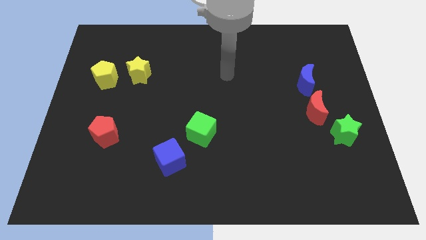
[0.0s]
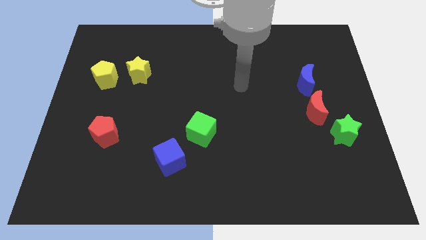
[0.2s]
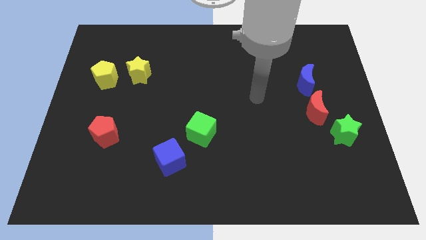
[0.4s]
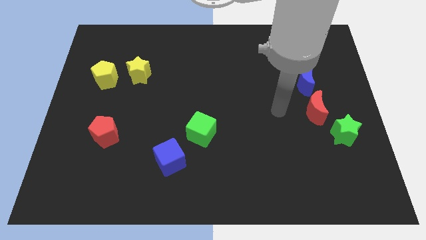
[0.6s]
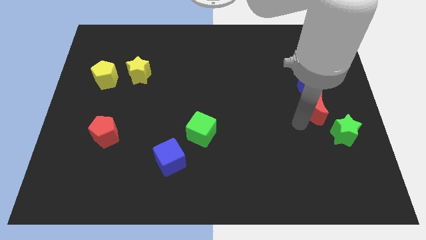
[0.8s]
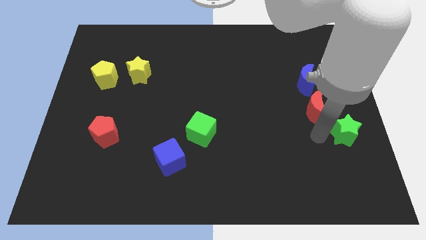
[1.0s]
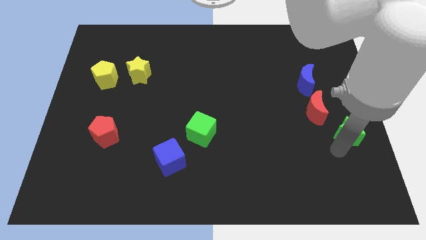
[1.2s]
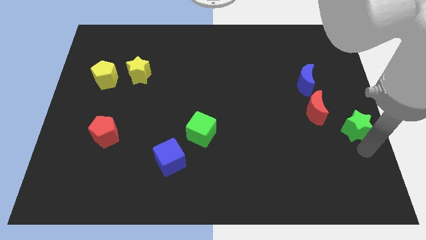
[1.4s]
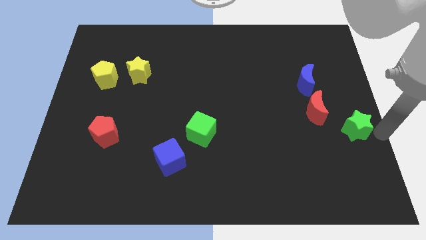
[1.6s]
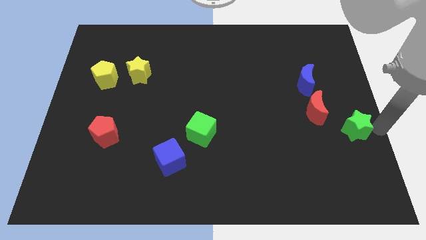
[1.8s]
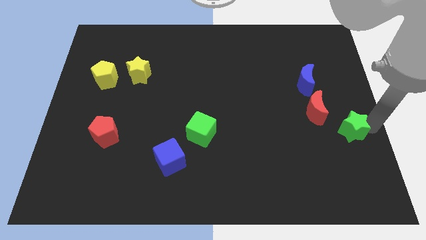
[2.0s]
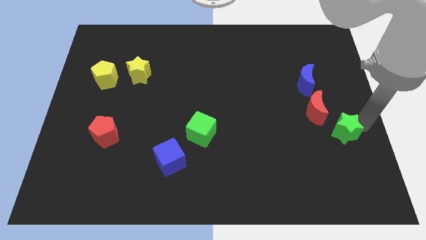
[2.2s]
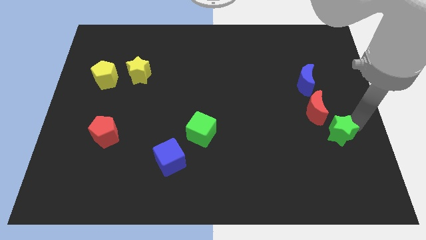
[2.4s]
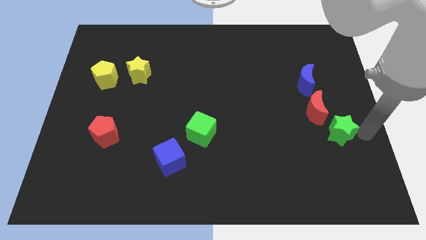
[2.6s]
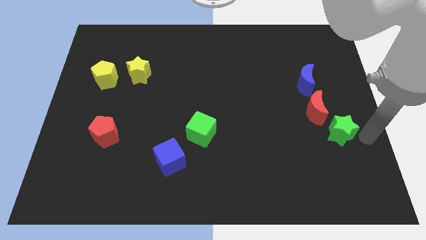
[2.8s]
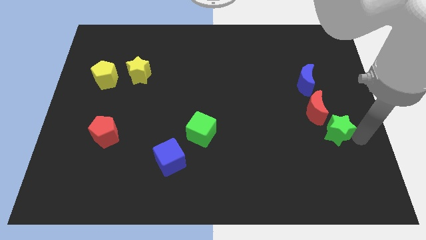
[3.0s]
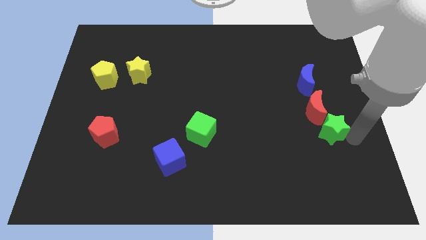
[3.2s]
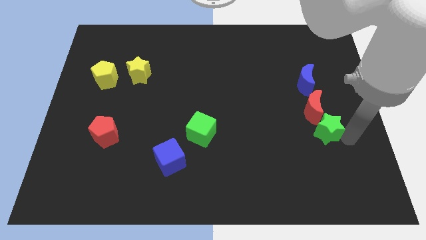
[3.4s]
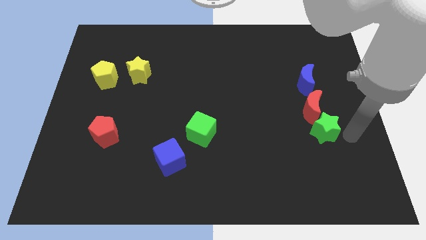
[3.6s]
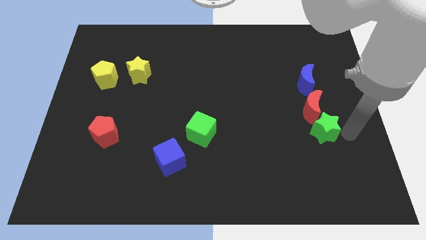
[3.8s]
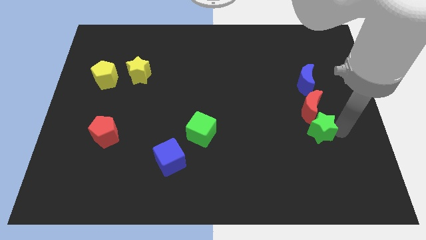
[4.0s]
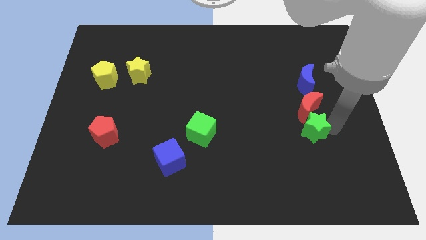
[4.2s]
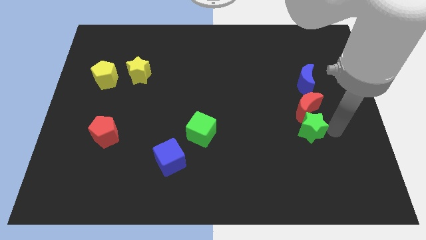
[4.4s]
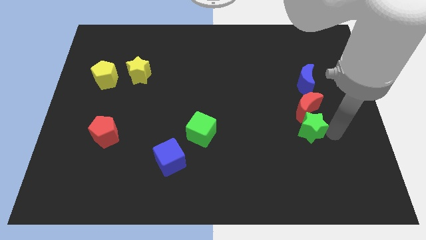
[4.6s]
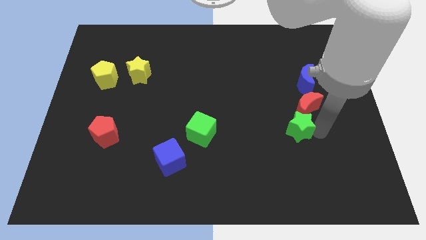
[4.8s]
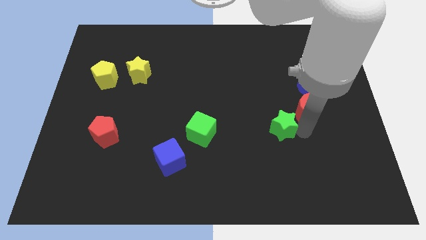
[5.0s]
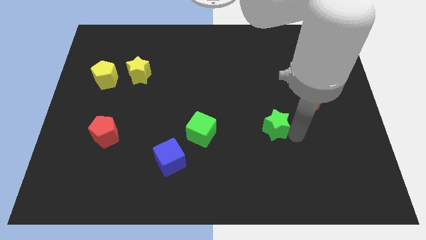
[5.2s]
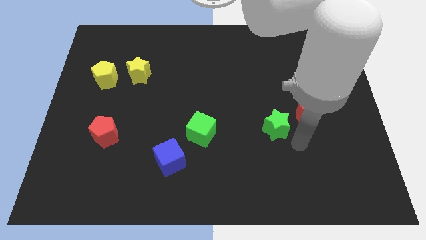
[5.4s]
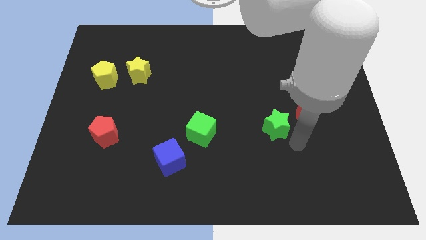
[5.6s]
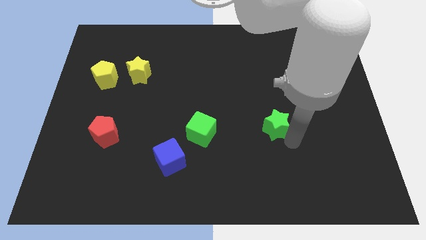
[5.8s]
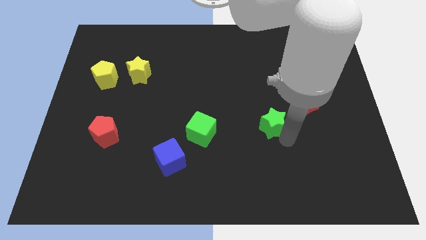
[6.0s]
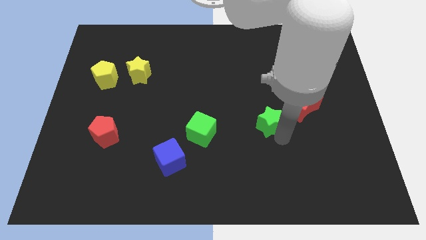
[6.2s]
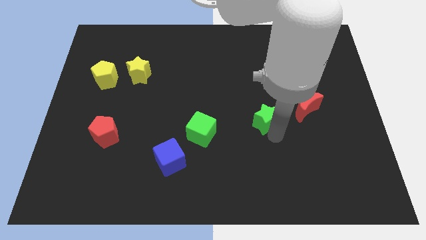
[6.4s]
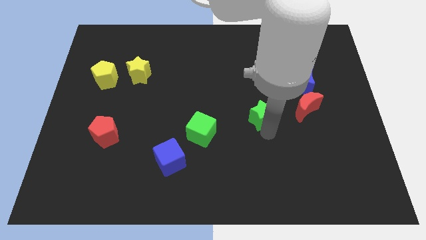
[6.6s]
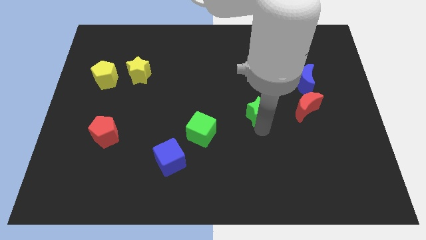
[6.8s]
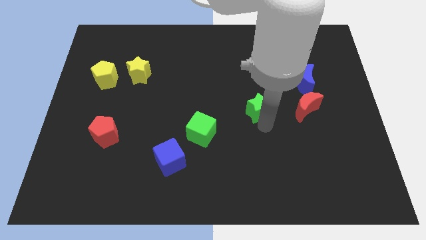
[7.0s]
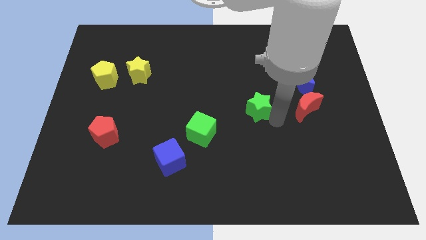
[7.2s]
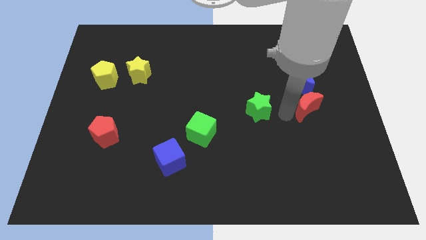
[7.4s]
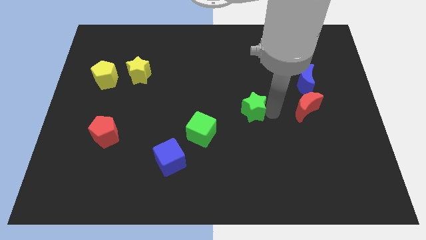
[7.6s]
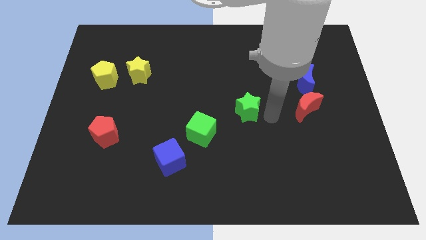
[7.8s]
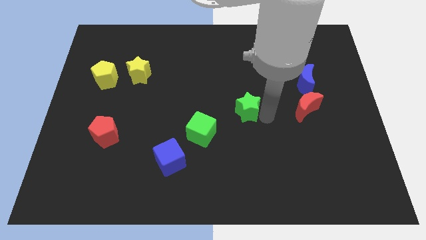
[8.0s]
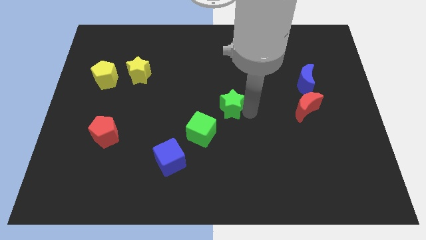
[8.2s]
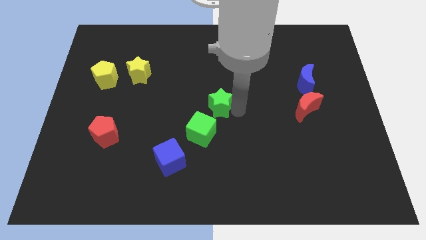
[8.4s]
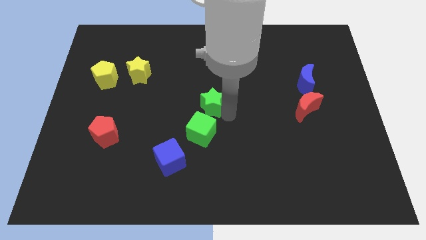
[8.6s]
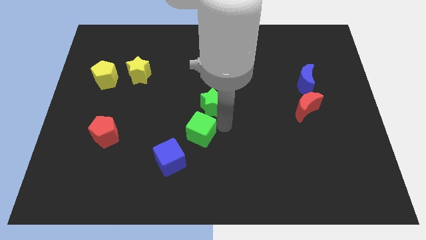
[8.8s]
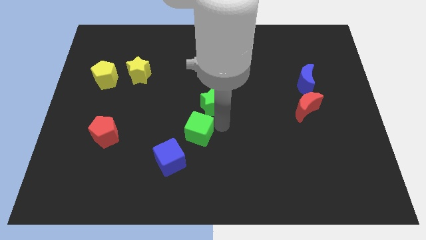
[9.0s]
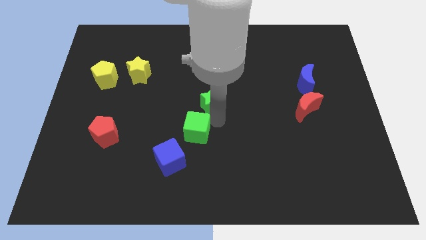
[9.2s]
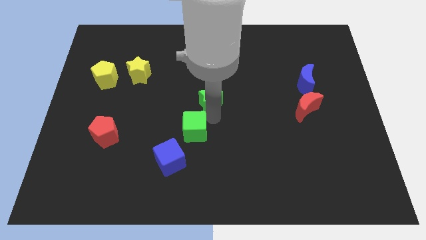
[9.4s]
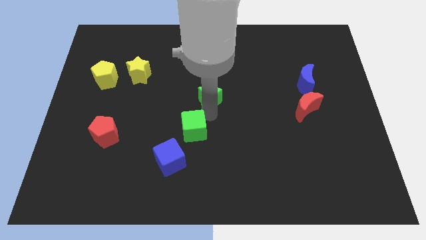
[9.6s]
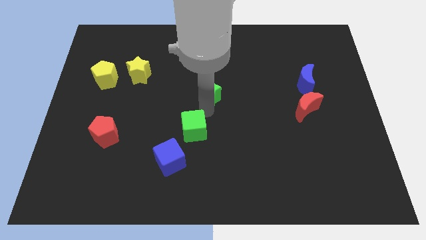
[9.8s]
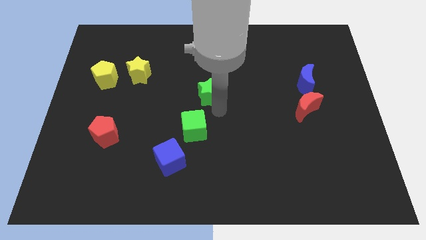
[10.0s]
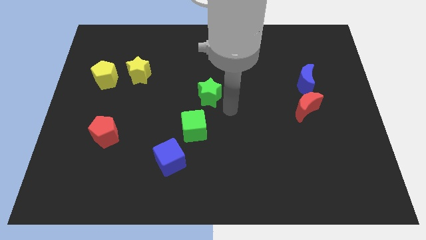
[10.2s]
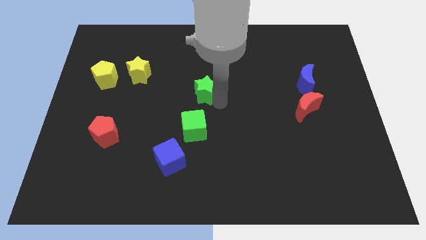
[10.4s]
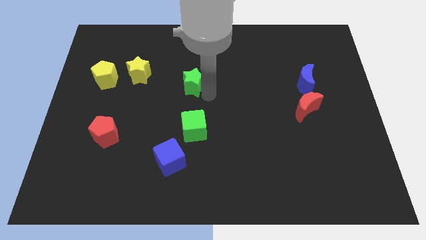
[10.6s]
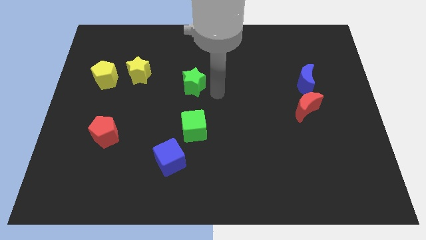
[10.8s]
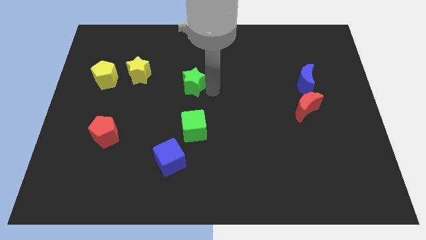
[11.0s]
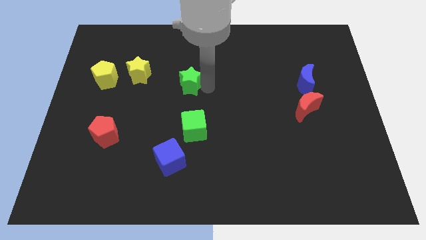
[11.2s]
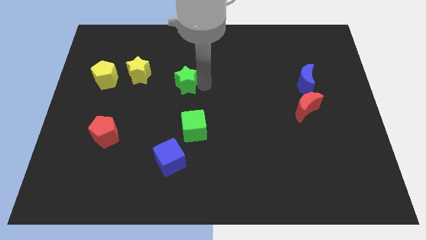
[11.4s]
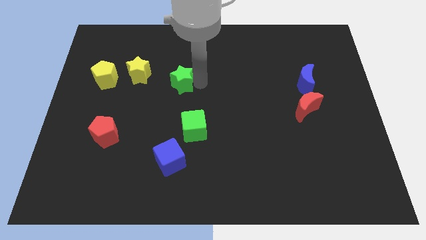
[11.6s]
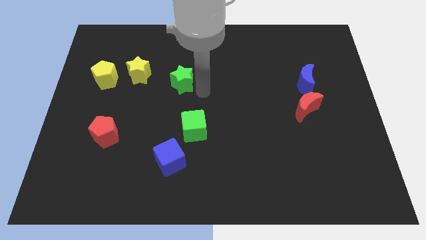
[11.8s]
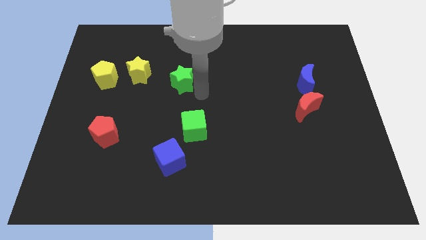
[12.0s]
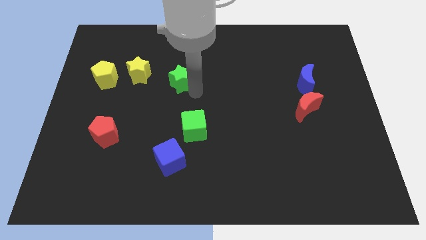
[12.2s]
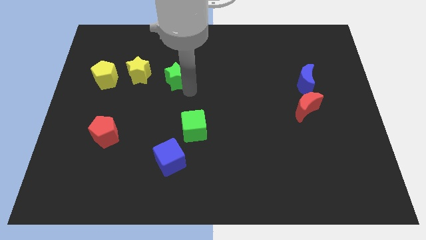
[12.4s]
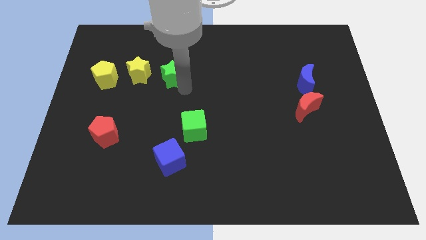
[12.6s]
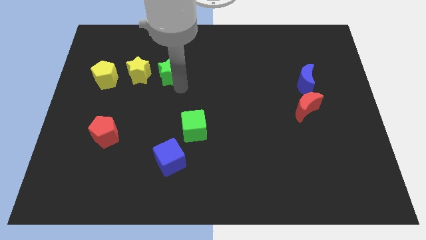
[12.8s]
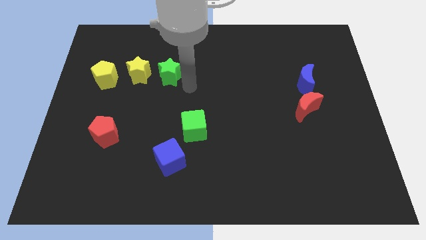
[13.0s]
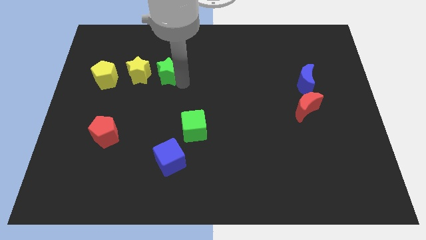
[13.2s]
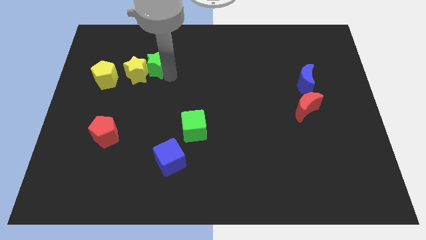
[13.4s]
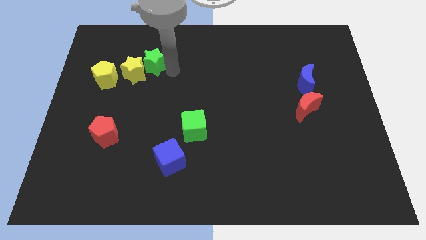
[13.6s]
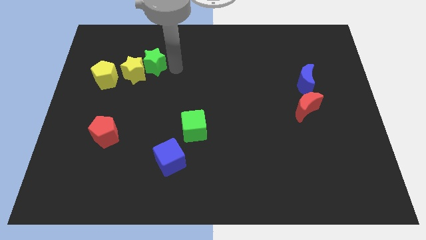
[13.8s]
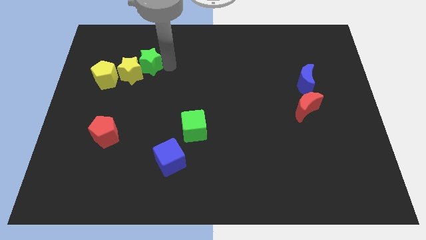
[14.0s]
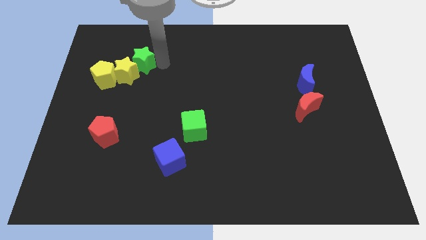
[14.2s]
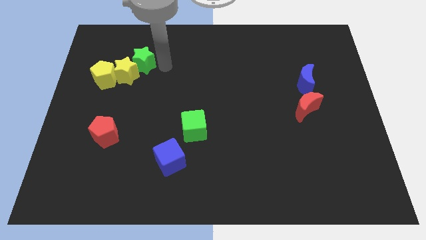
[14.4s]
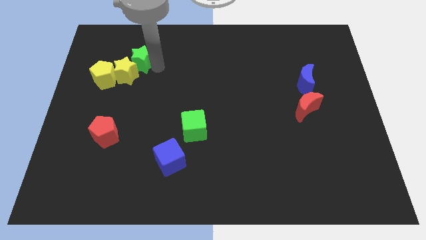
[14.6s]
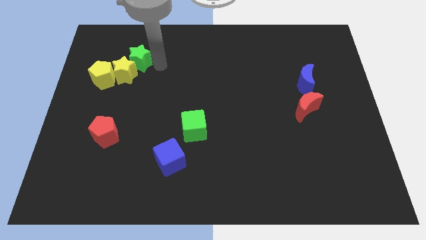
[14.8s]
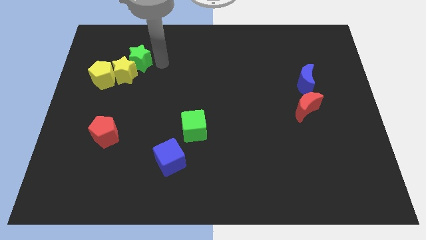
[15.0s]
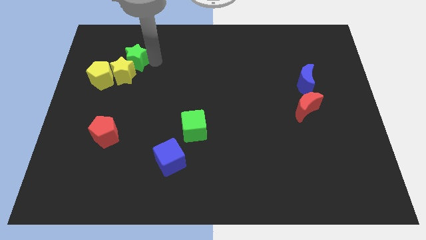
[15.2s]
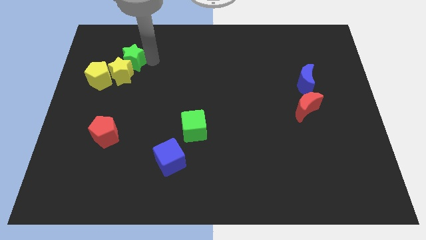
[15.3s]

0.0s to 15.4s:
slide the green star diagonally up and to the left of the yellow star
